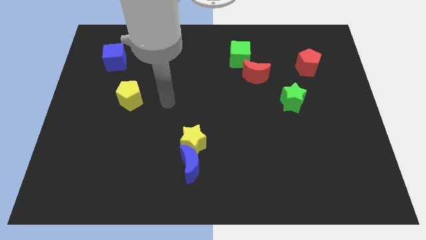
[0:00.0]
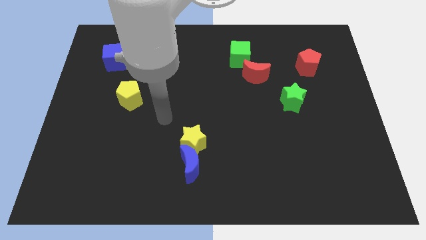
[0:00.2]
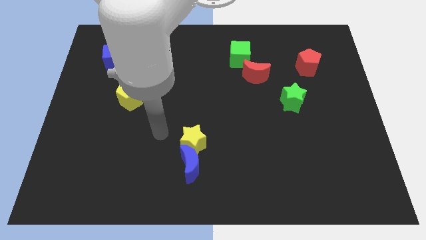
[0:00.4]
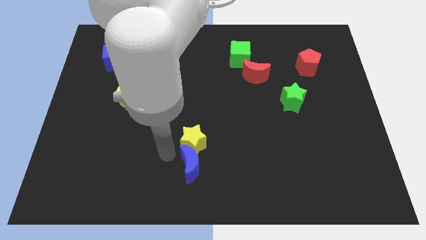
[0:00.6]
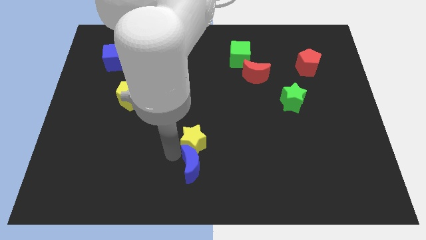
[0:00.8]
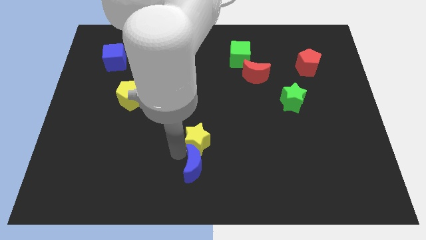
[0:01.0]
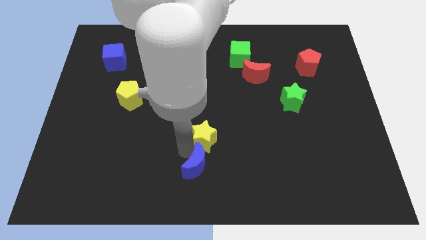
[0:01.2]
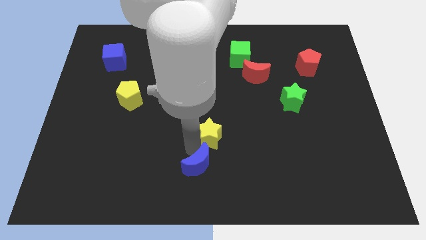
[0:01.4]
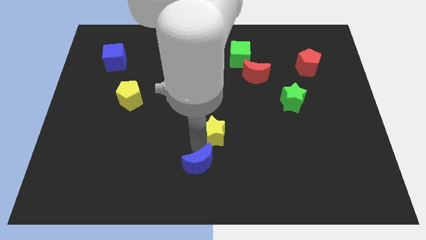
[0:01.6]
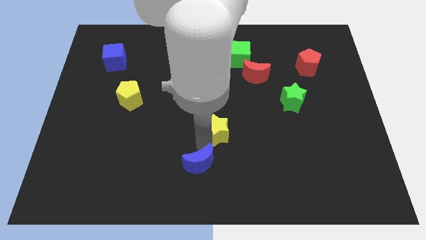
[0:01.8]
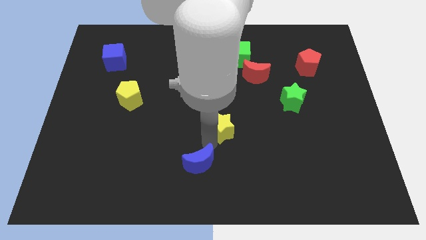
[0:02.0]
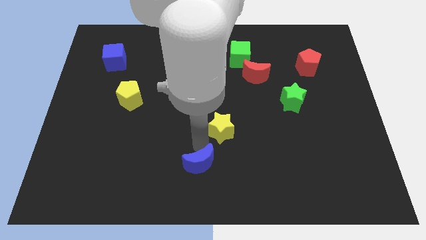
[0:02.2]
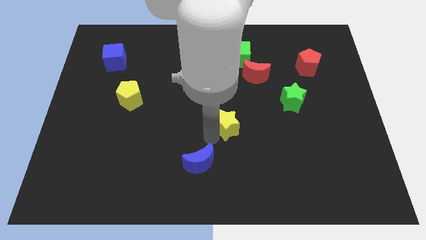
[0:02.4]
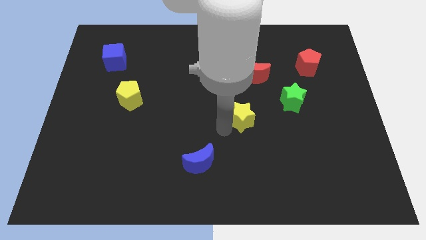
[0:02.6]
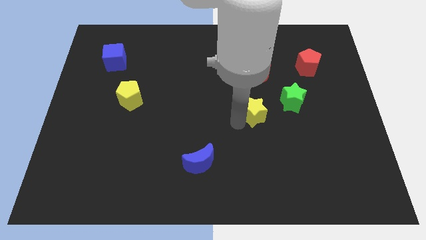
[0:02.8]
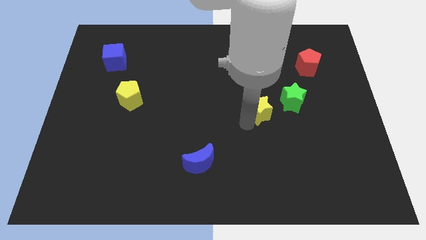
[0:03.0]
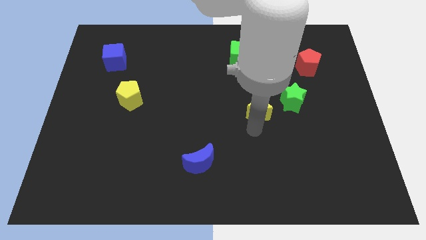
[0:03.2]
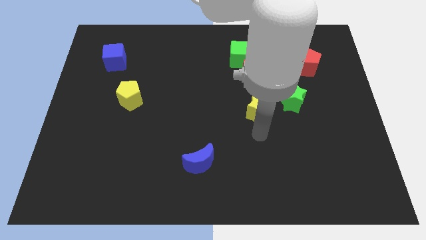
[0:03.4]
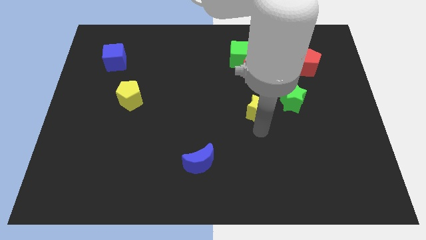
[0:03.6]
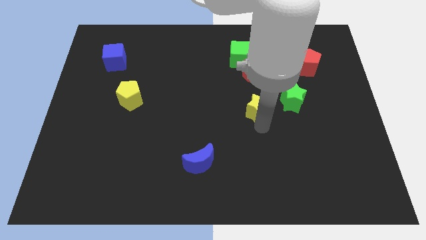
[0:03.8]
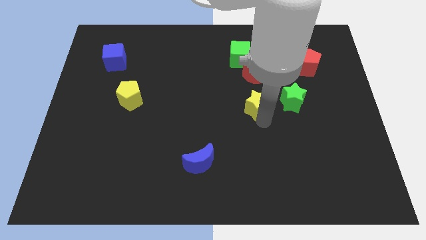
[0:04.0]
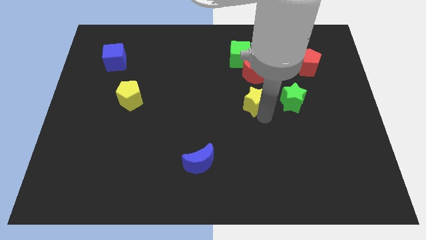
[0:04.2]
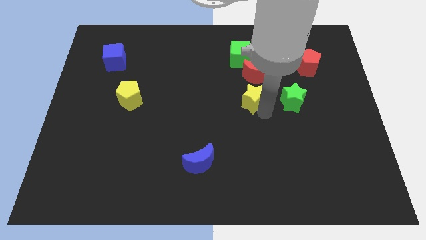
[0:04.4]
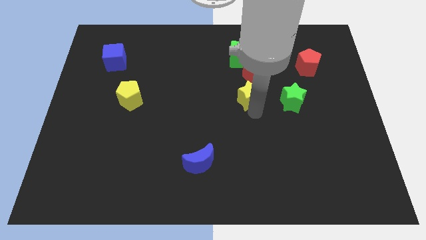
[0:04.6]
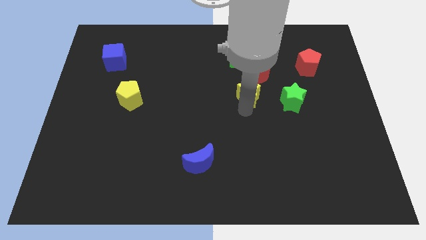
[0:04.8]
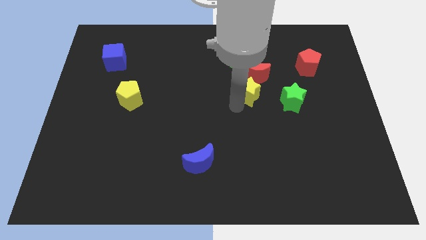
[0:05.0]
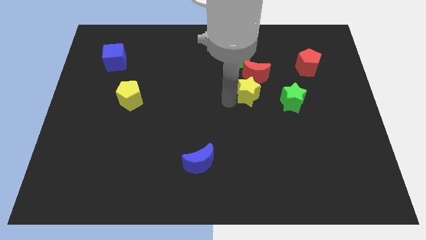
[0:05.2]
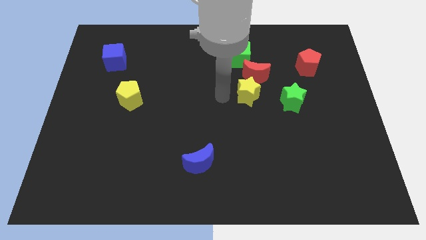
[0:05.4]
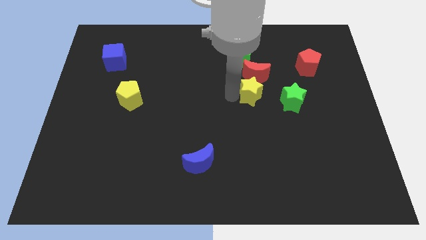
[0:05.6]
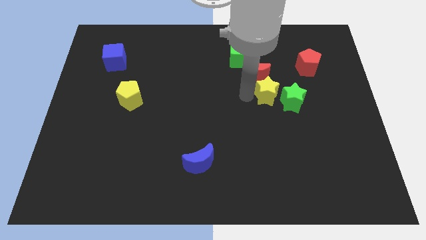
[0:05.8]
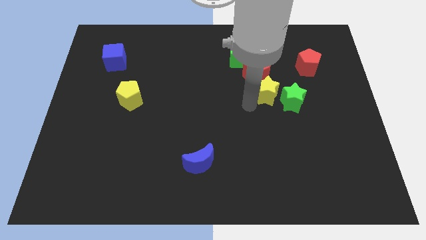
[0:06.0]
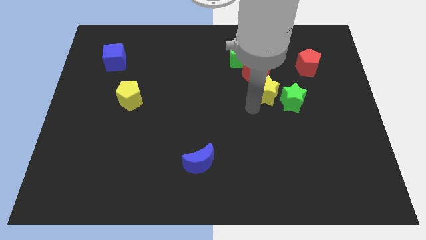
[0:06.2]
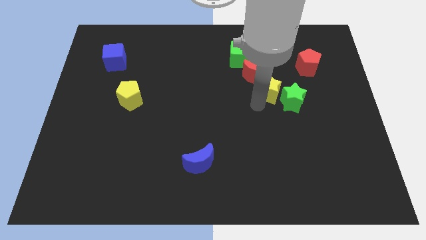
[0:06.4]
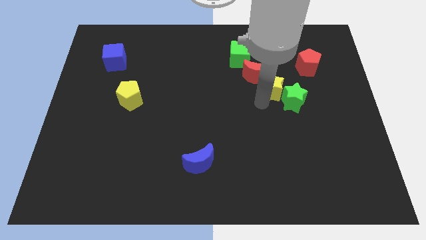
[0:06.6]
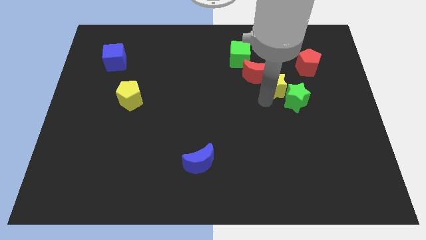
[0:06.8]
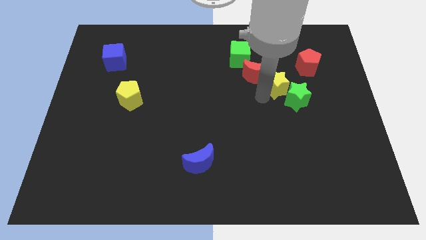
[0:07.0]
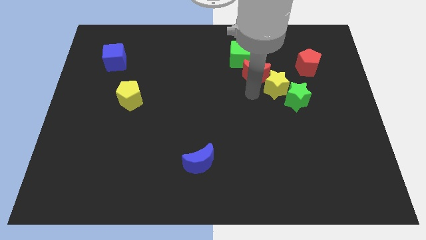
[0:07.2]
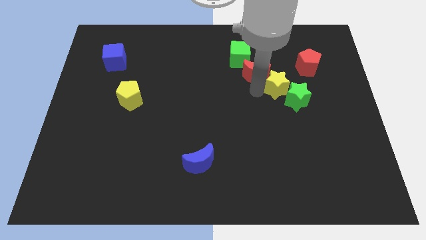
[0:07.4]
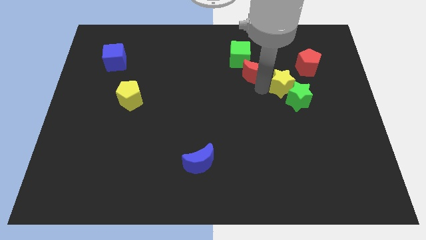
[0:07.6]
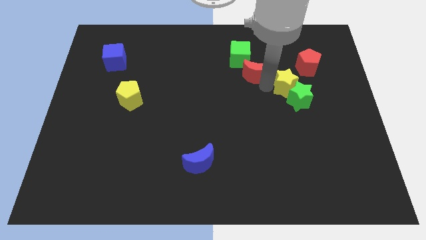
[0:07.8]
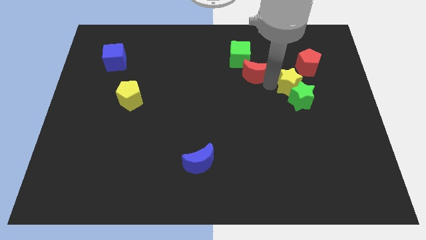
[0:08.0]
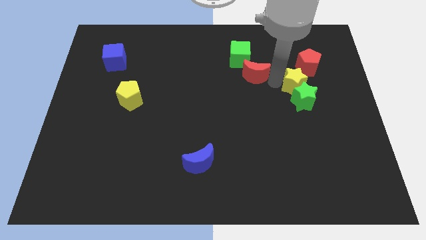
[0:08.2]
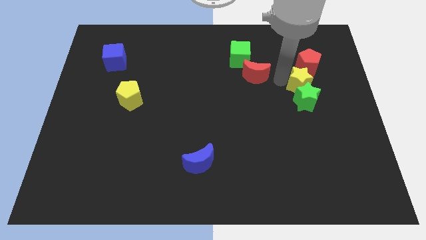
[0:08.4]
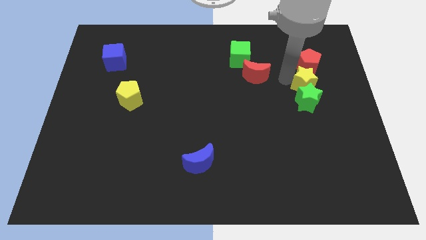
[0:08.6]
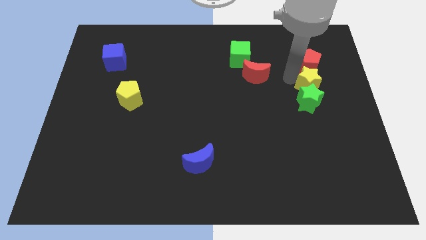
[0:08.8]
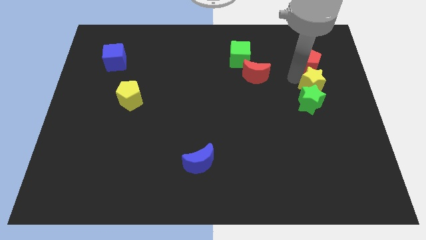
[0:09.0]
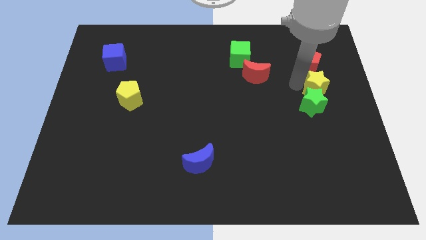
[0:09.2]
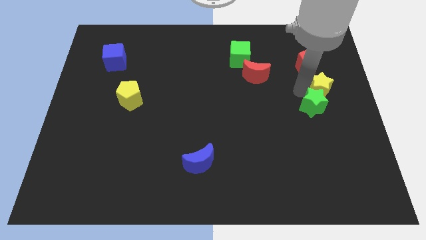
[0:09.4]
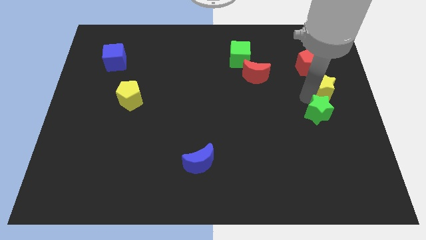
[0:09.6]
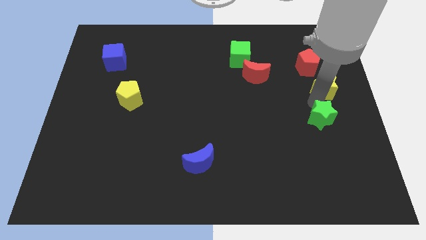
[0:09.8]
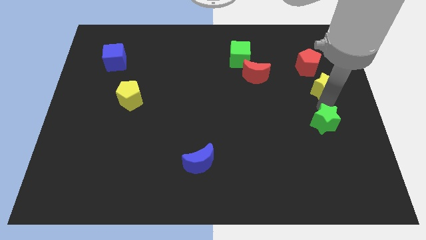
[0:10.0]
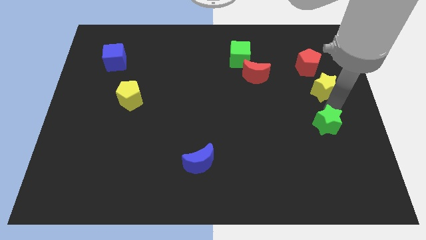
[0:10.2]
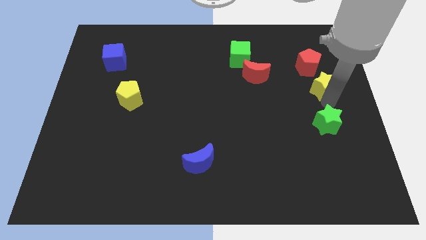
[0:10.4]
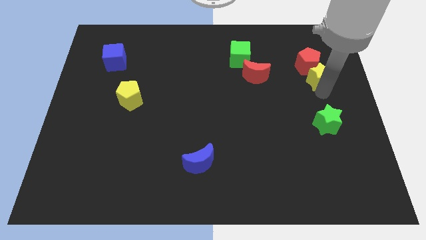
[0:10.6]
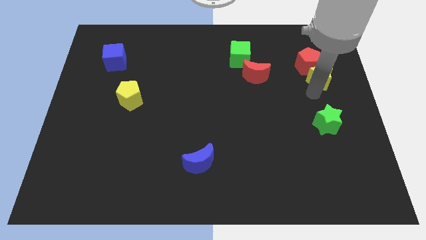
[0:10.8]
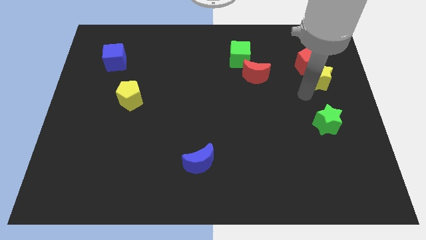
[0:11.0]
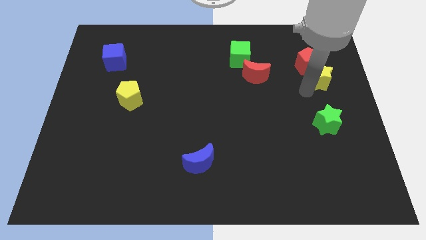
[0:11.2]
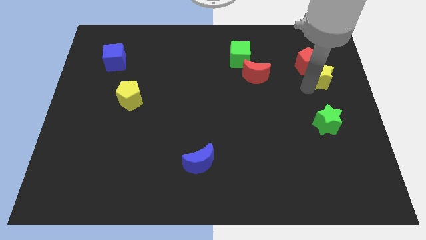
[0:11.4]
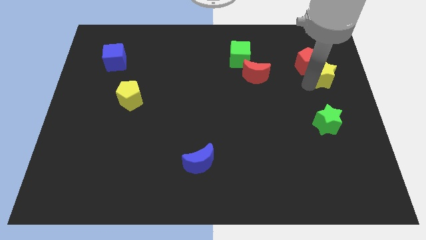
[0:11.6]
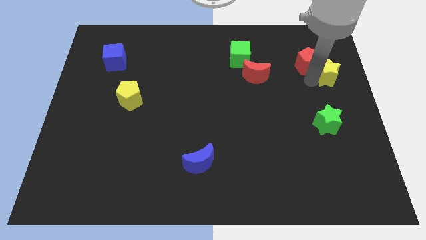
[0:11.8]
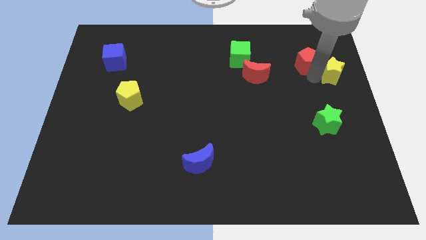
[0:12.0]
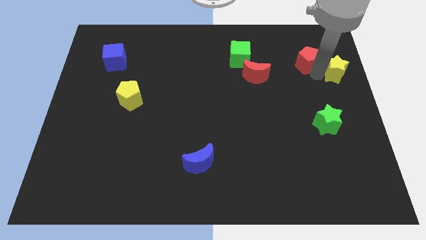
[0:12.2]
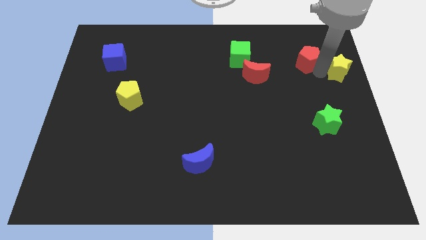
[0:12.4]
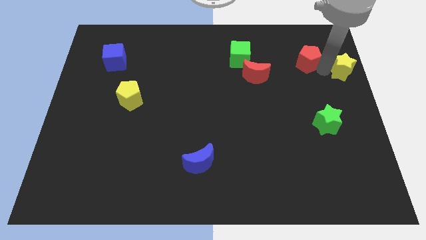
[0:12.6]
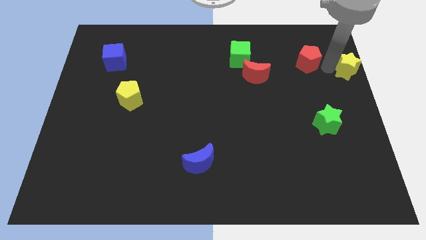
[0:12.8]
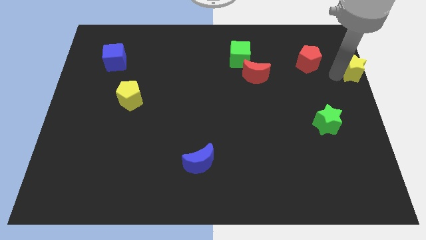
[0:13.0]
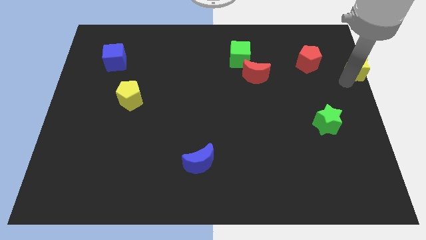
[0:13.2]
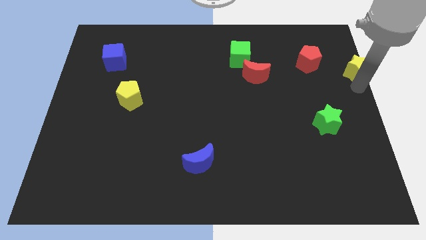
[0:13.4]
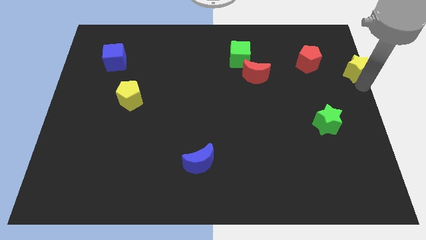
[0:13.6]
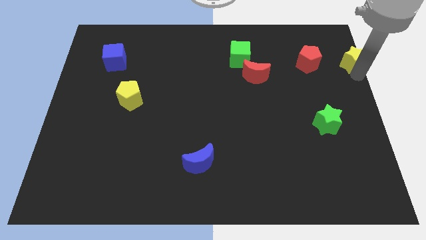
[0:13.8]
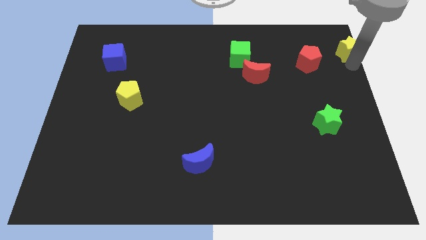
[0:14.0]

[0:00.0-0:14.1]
put the yellow star to the top right
